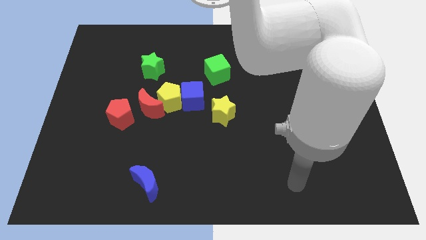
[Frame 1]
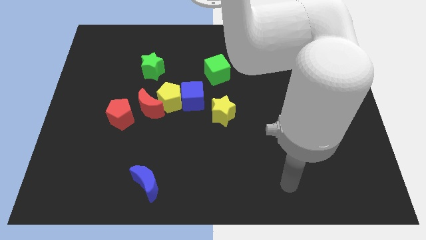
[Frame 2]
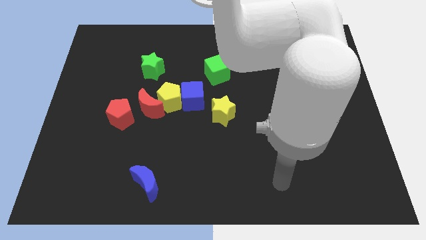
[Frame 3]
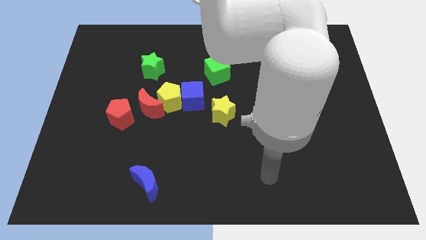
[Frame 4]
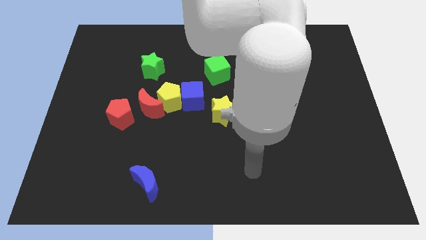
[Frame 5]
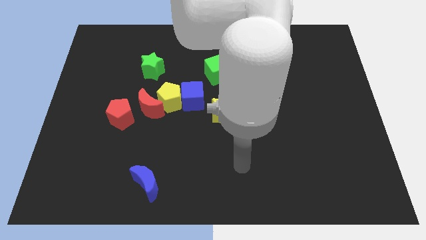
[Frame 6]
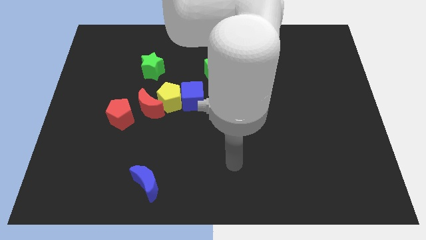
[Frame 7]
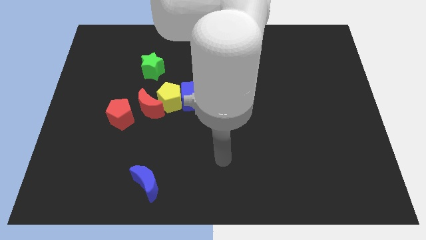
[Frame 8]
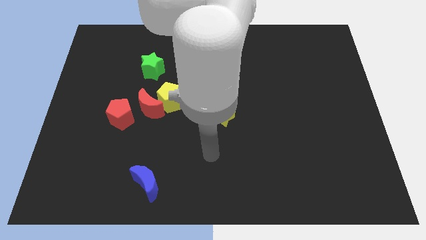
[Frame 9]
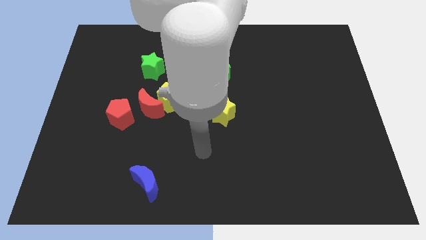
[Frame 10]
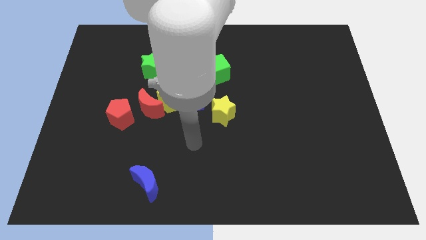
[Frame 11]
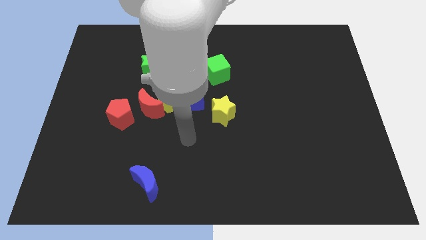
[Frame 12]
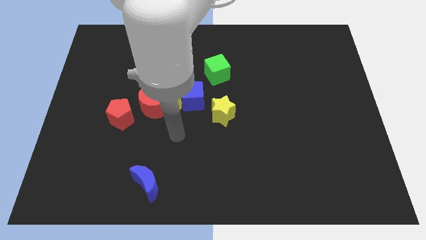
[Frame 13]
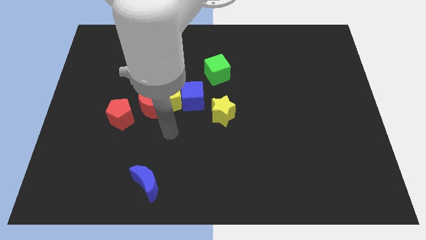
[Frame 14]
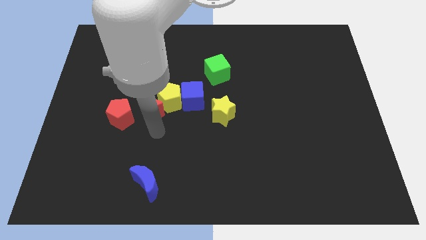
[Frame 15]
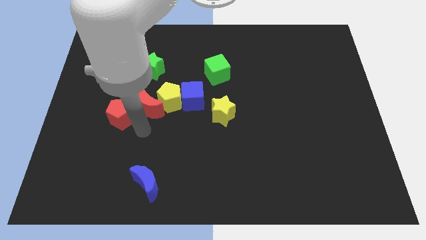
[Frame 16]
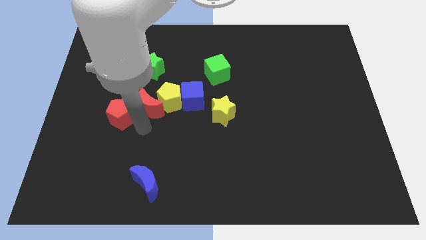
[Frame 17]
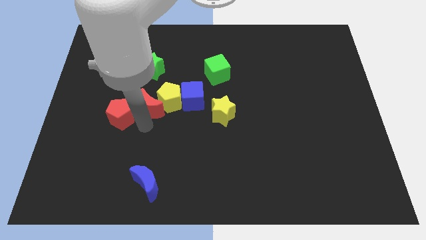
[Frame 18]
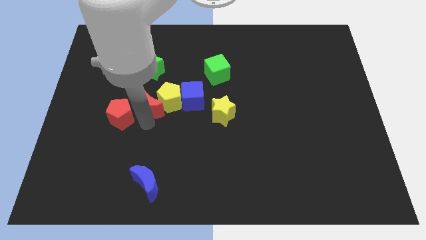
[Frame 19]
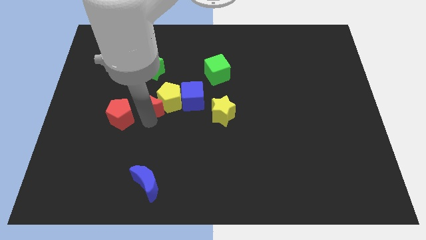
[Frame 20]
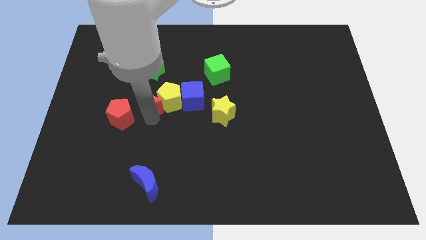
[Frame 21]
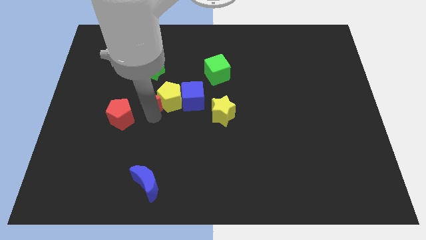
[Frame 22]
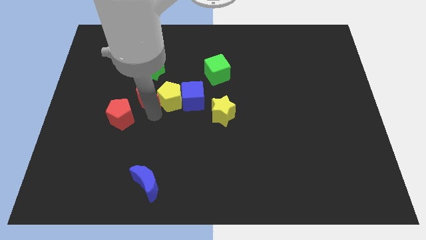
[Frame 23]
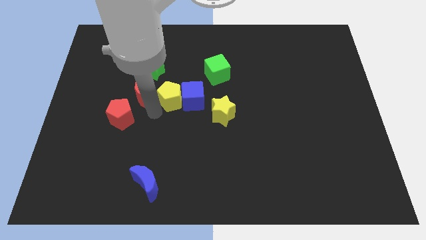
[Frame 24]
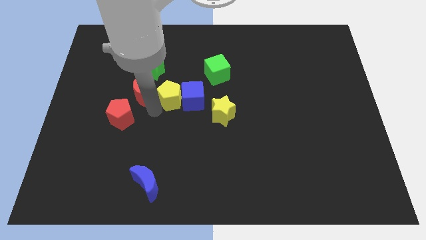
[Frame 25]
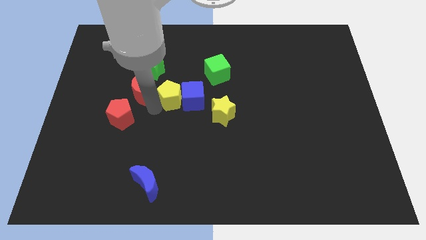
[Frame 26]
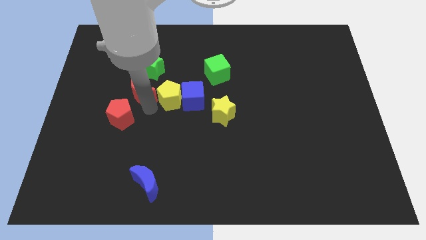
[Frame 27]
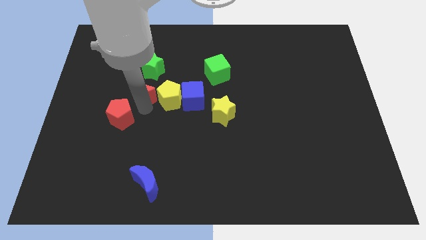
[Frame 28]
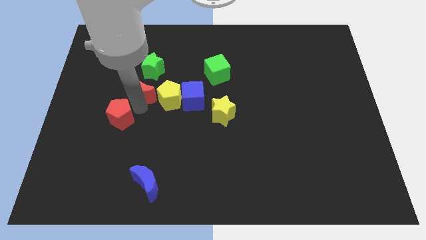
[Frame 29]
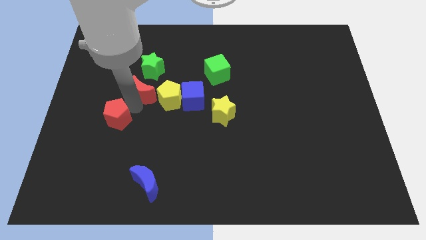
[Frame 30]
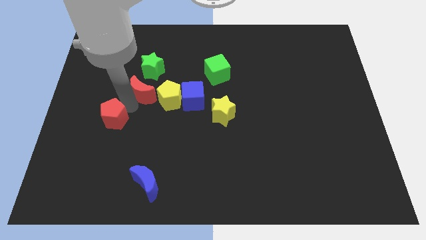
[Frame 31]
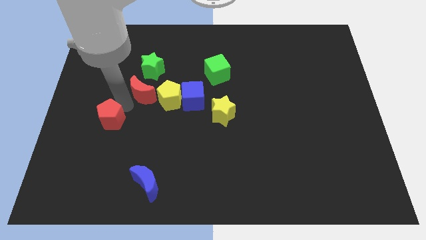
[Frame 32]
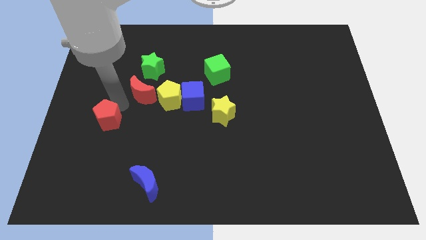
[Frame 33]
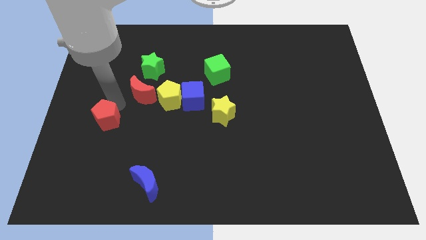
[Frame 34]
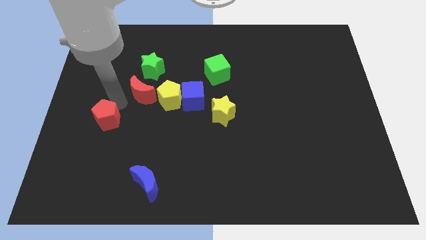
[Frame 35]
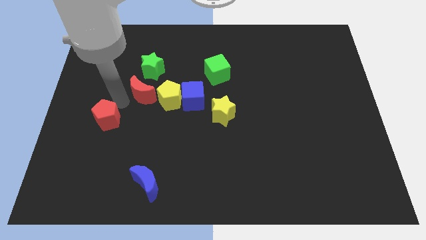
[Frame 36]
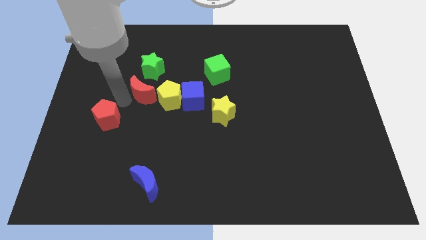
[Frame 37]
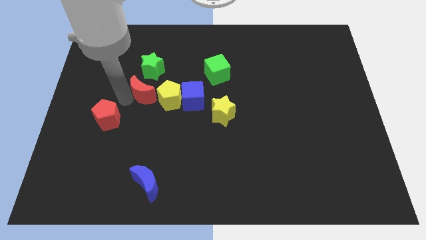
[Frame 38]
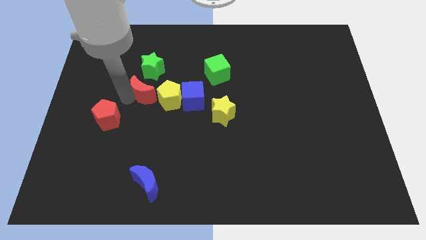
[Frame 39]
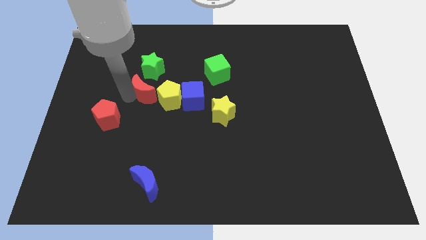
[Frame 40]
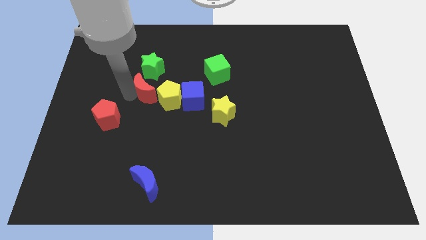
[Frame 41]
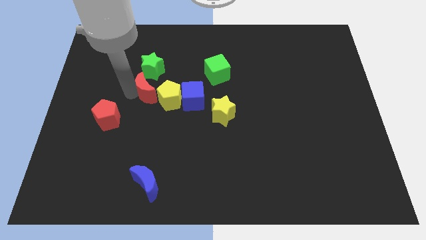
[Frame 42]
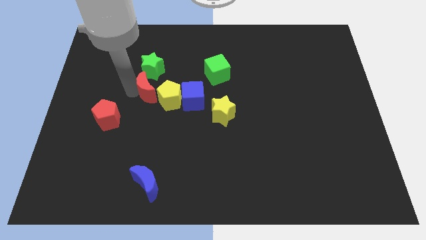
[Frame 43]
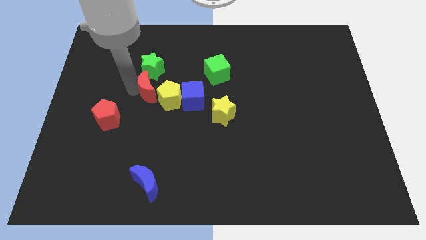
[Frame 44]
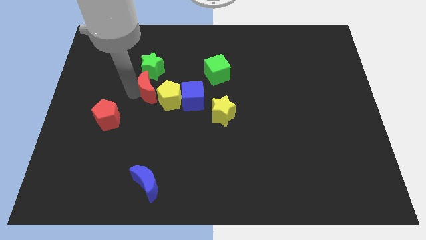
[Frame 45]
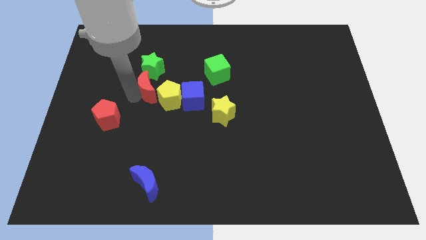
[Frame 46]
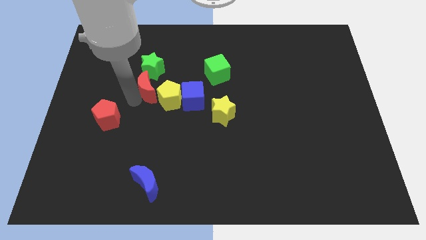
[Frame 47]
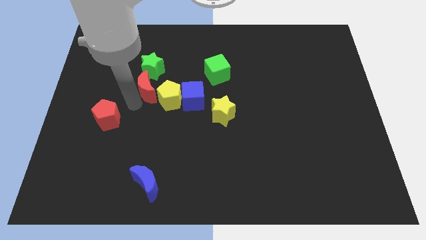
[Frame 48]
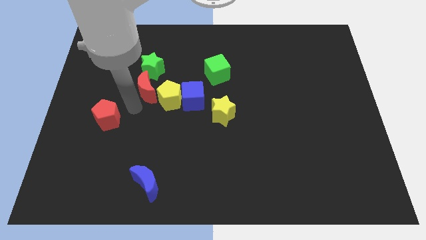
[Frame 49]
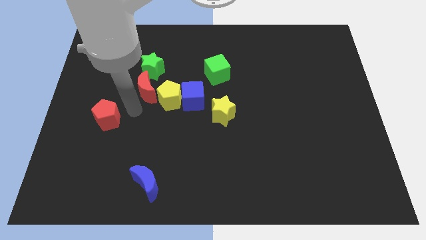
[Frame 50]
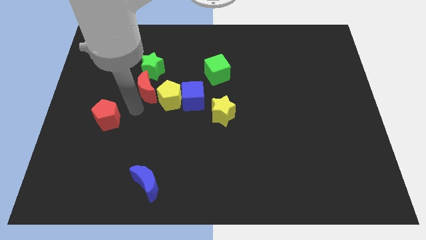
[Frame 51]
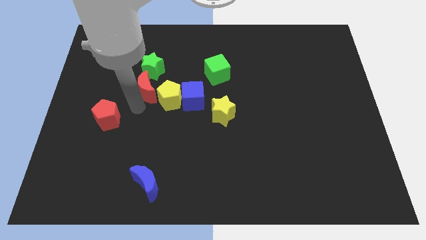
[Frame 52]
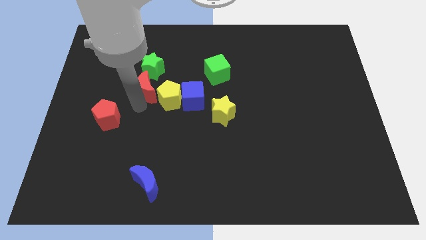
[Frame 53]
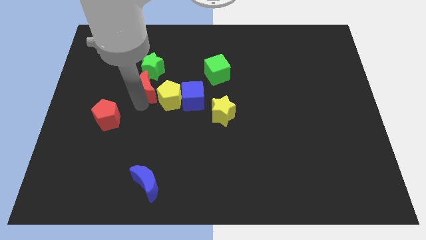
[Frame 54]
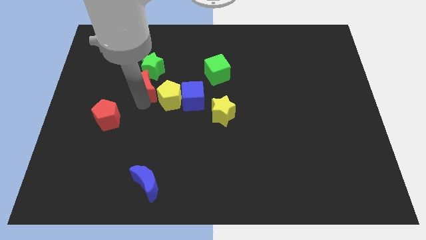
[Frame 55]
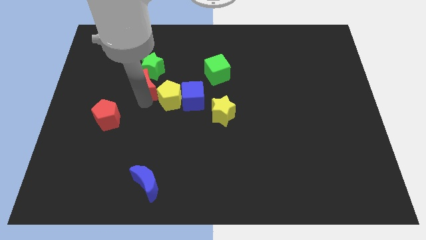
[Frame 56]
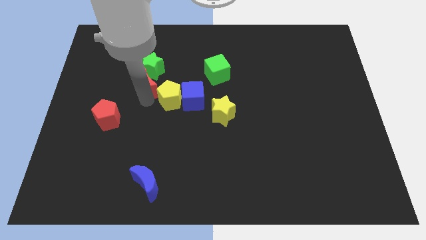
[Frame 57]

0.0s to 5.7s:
put the red moon to the green star

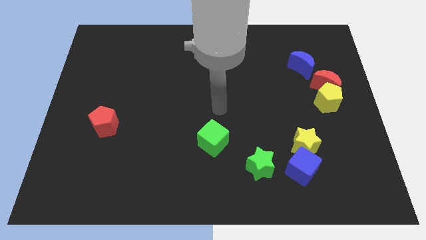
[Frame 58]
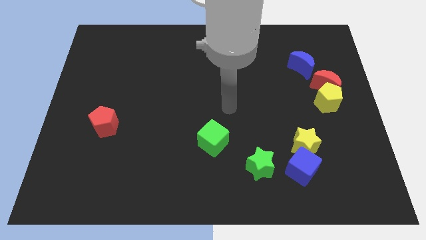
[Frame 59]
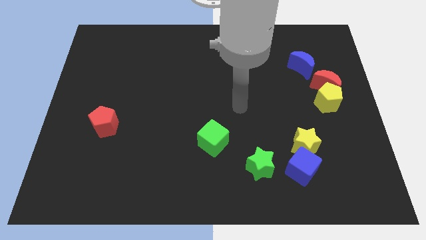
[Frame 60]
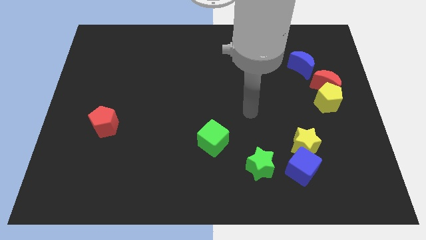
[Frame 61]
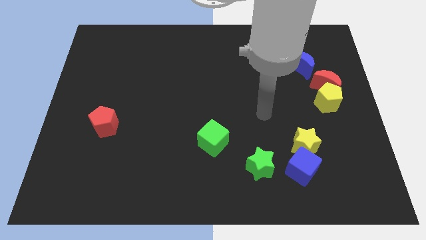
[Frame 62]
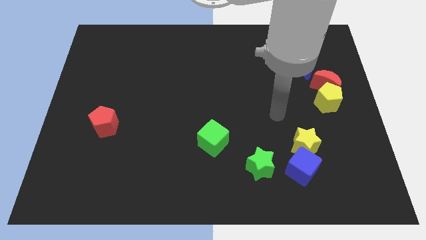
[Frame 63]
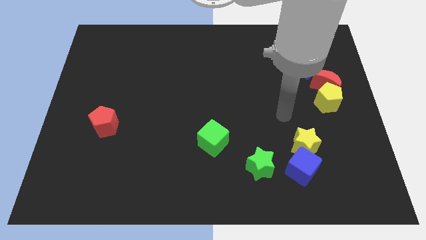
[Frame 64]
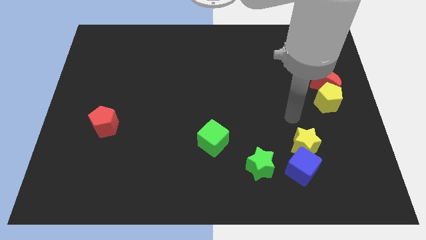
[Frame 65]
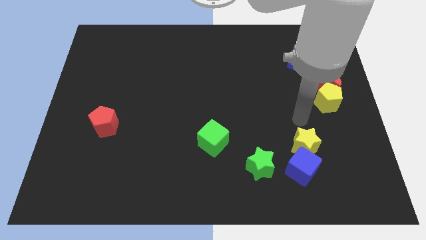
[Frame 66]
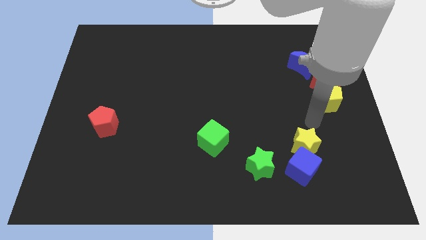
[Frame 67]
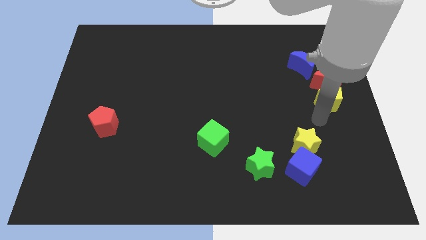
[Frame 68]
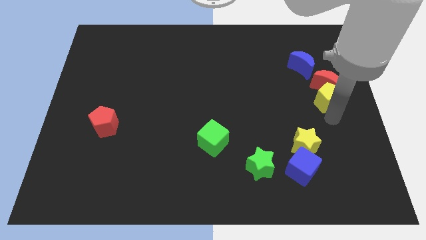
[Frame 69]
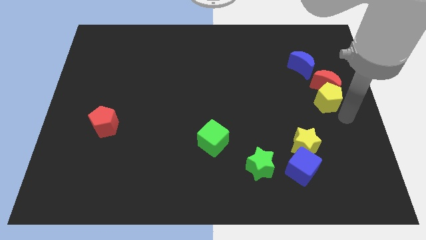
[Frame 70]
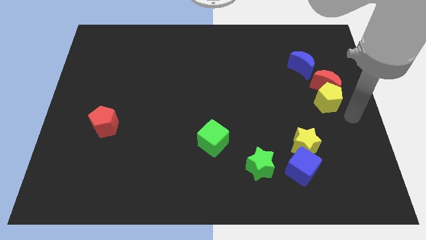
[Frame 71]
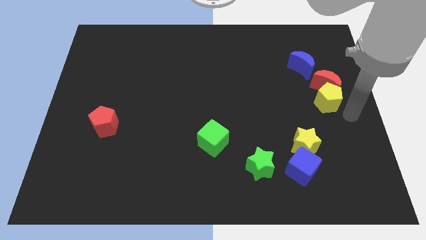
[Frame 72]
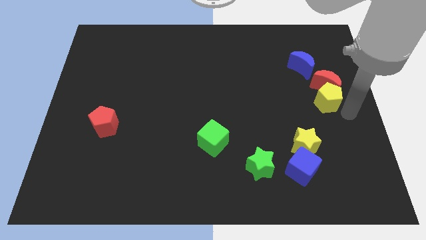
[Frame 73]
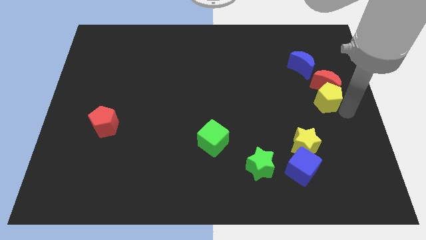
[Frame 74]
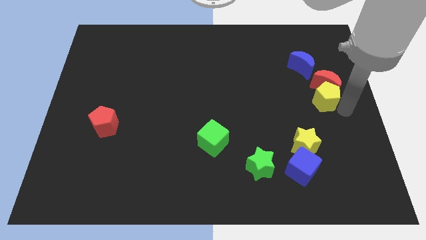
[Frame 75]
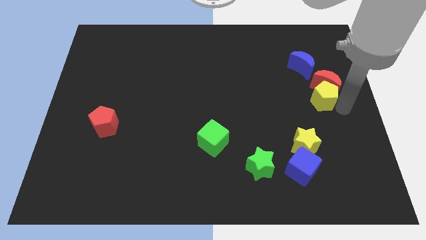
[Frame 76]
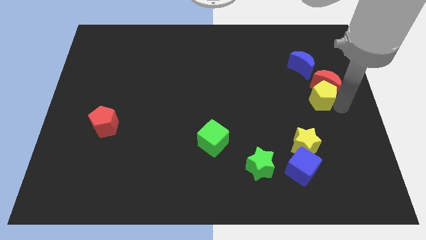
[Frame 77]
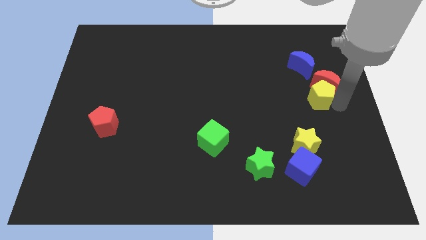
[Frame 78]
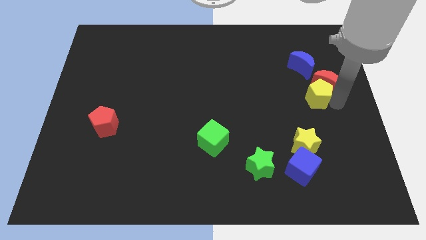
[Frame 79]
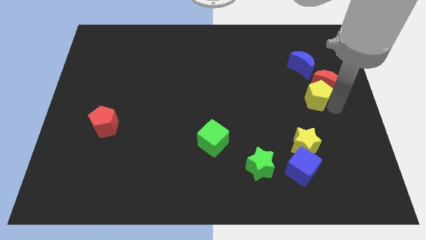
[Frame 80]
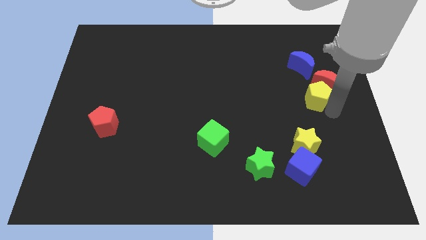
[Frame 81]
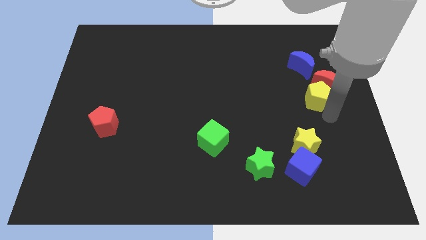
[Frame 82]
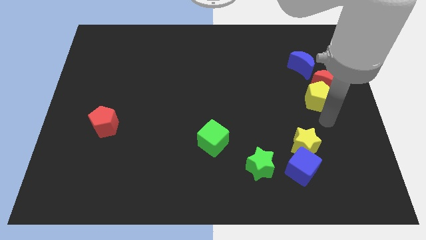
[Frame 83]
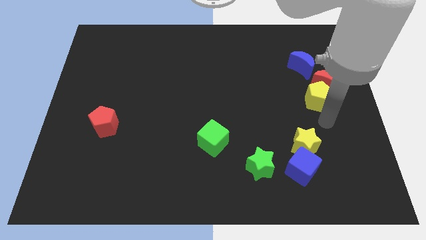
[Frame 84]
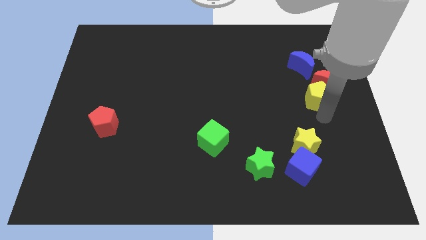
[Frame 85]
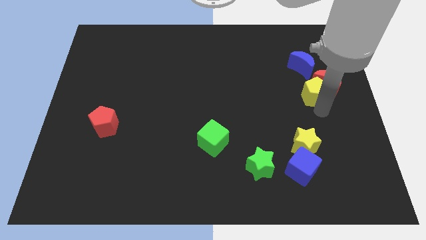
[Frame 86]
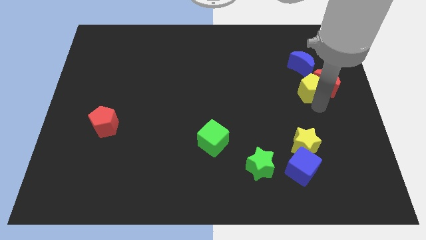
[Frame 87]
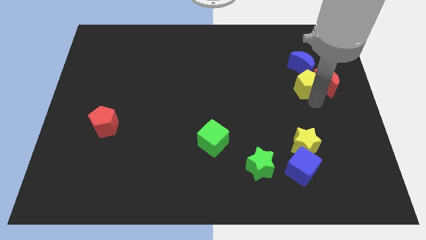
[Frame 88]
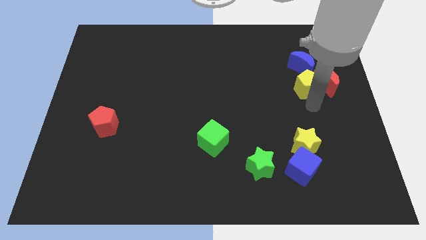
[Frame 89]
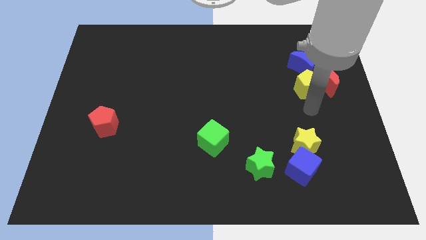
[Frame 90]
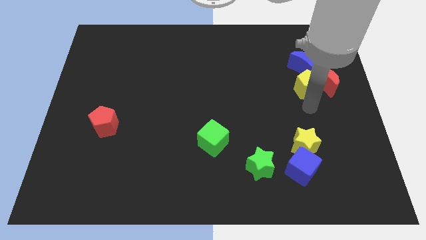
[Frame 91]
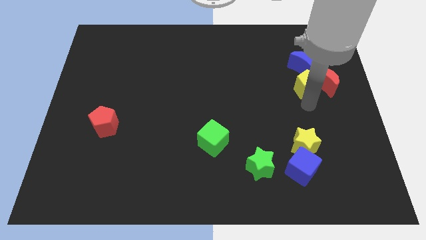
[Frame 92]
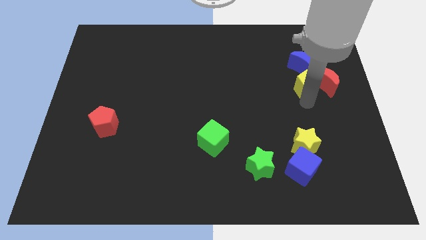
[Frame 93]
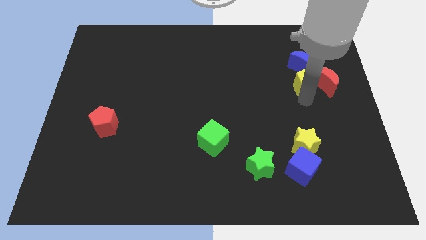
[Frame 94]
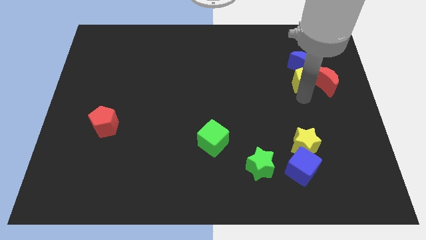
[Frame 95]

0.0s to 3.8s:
put the yellow pentagon towards the blue moon
